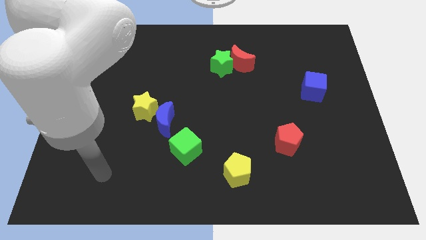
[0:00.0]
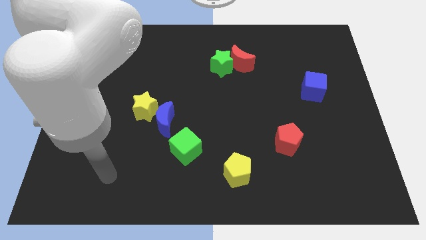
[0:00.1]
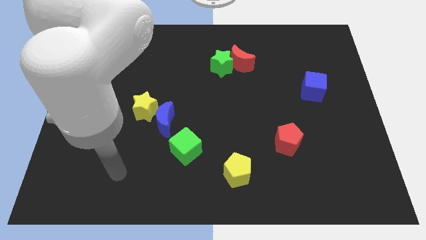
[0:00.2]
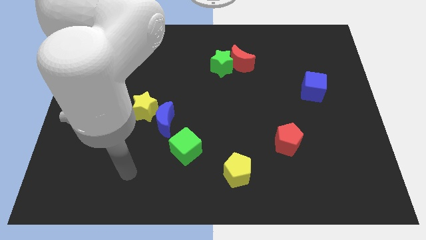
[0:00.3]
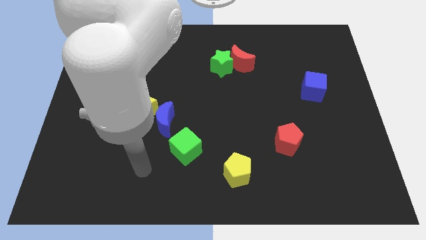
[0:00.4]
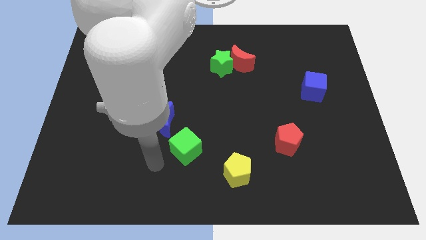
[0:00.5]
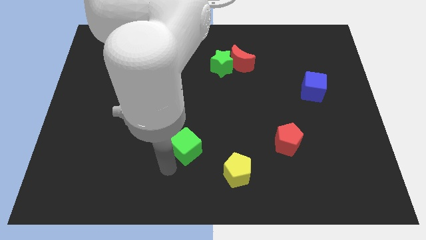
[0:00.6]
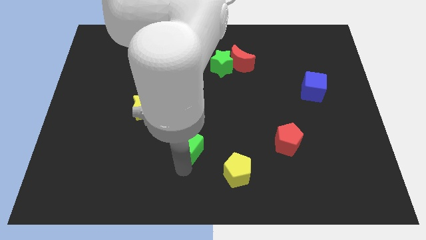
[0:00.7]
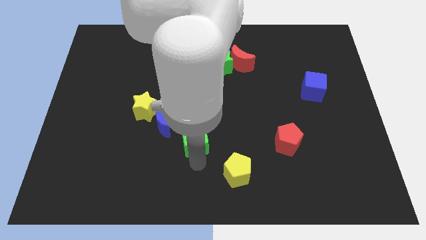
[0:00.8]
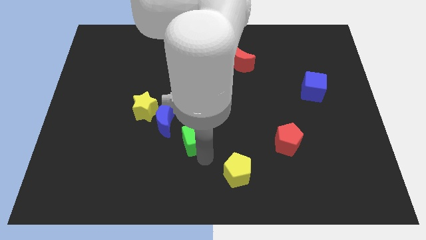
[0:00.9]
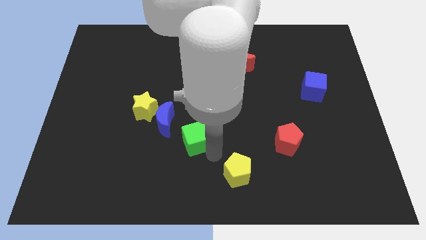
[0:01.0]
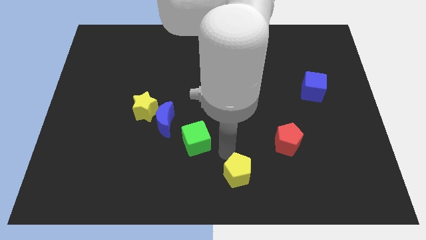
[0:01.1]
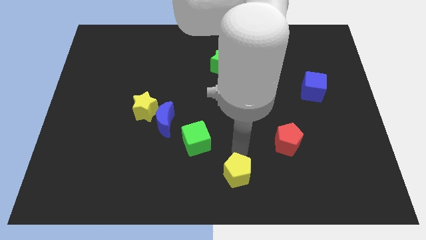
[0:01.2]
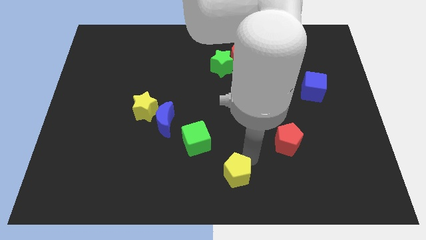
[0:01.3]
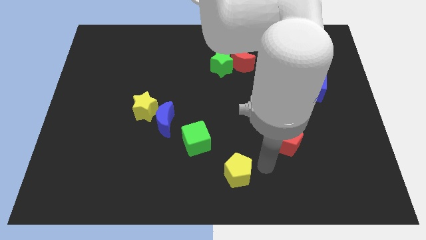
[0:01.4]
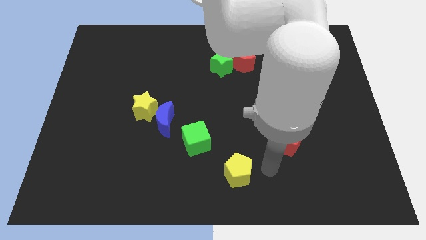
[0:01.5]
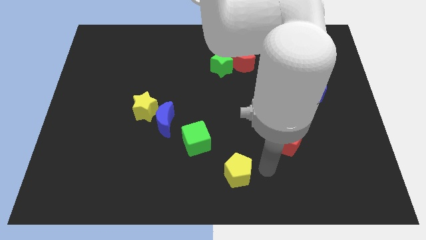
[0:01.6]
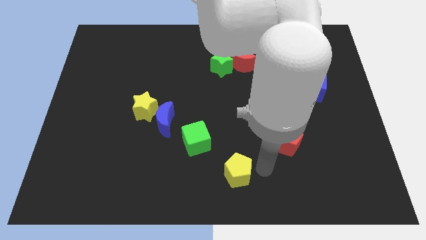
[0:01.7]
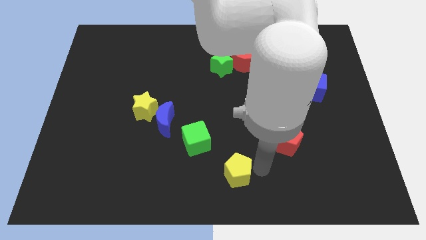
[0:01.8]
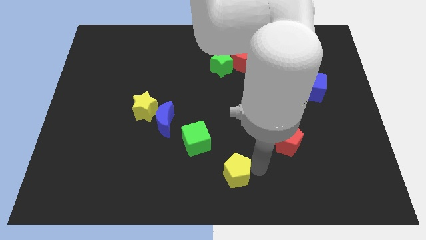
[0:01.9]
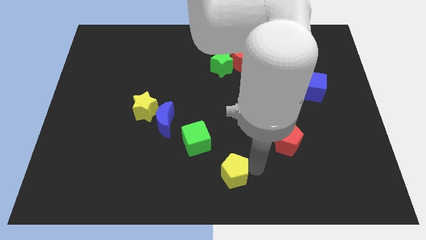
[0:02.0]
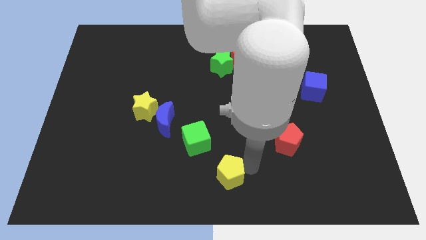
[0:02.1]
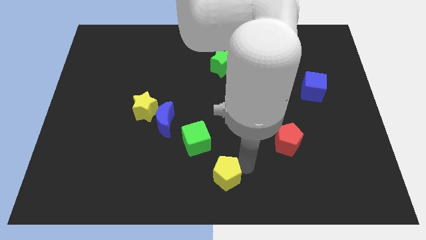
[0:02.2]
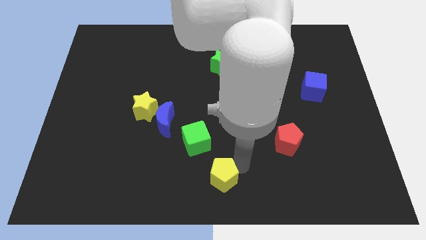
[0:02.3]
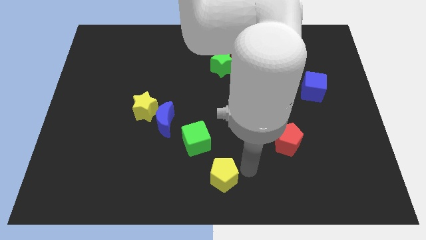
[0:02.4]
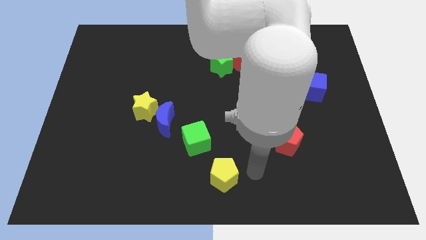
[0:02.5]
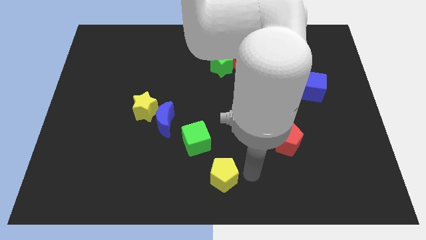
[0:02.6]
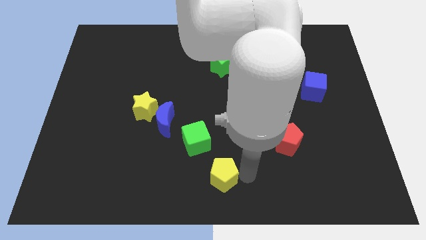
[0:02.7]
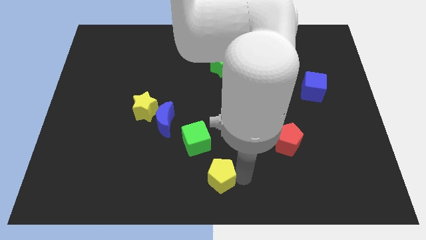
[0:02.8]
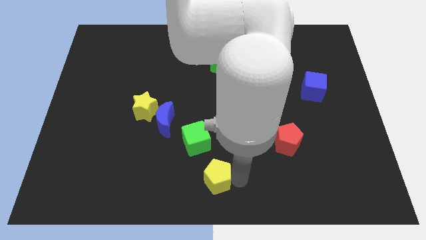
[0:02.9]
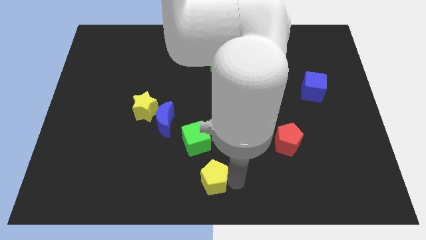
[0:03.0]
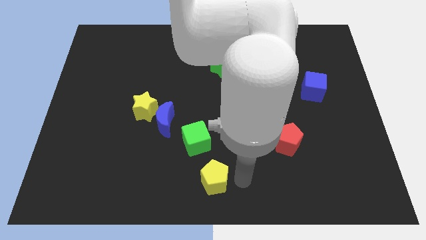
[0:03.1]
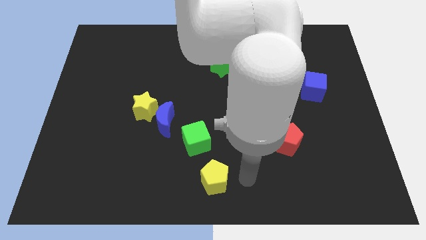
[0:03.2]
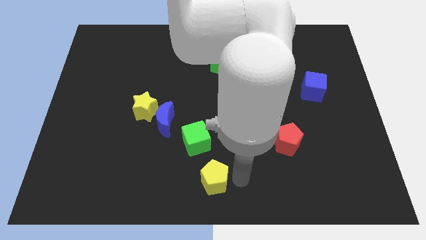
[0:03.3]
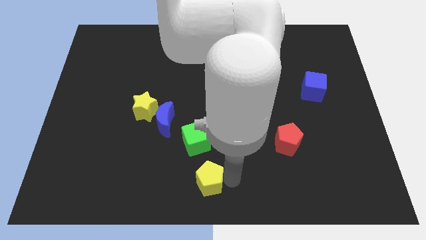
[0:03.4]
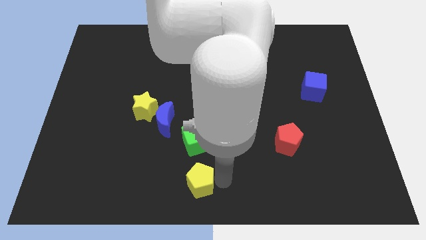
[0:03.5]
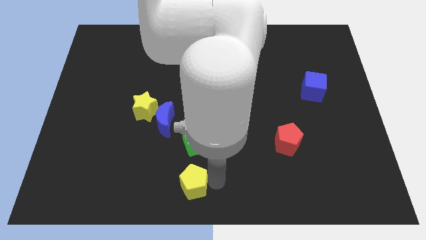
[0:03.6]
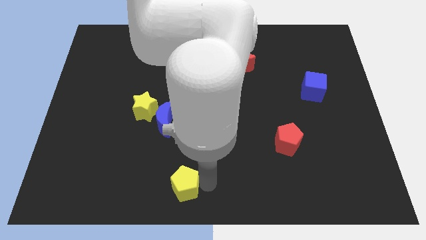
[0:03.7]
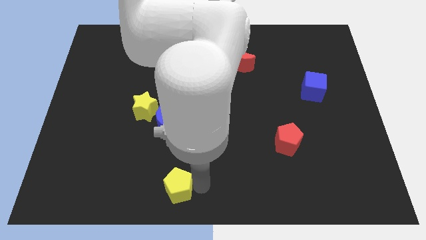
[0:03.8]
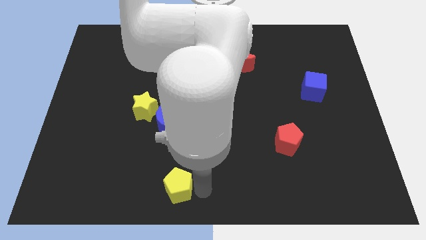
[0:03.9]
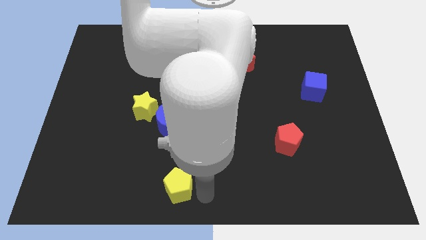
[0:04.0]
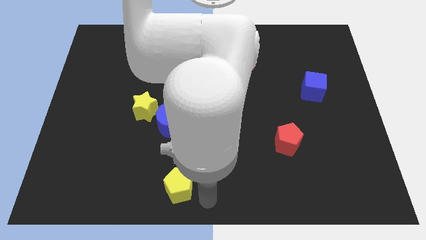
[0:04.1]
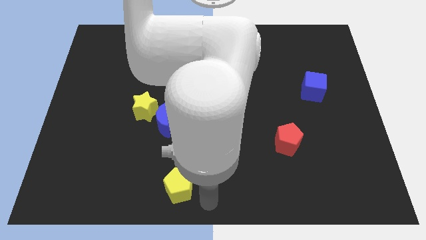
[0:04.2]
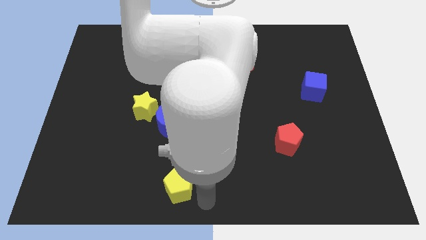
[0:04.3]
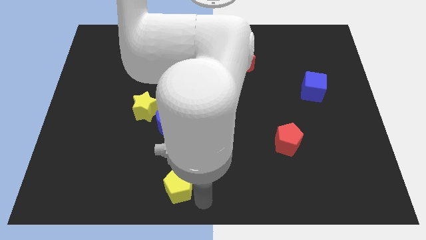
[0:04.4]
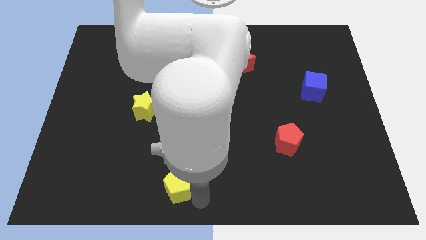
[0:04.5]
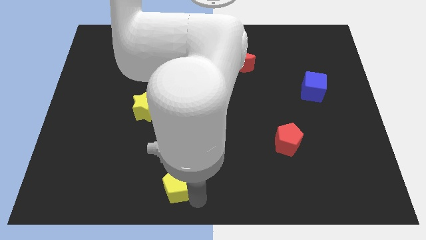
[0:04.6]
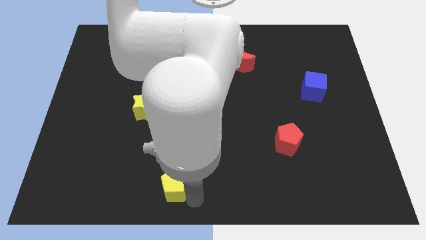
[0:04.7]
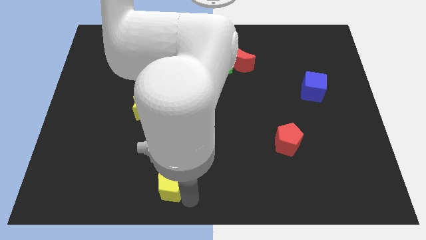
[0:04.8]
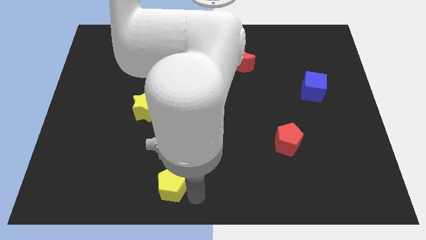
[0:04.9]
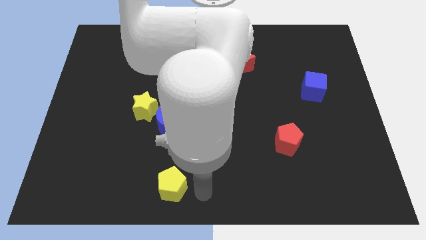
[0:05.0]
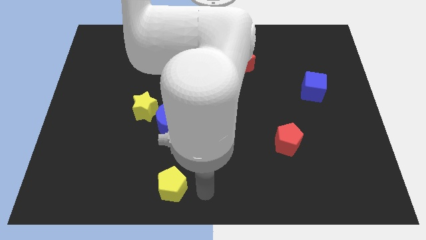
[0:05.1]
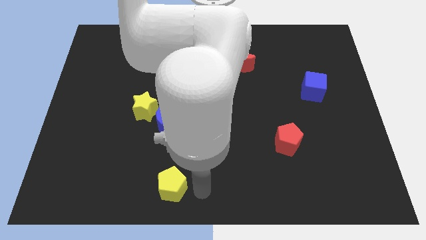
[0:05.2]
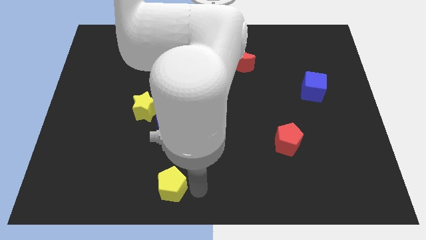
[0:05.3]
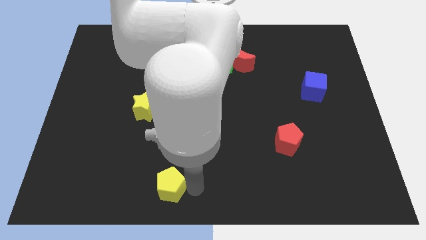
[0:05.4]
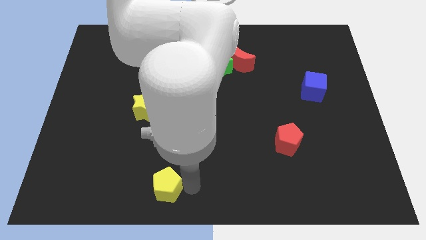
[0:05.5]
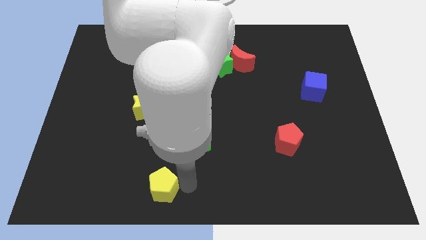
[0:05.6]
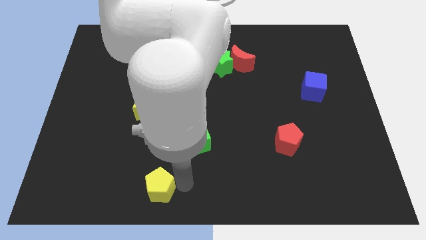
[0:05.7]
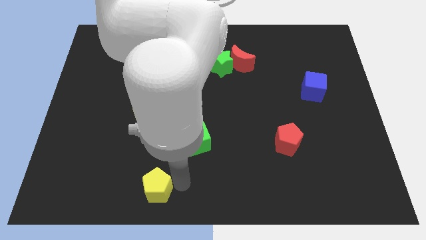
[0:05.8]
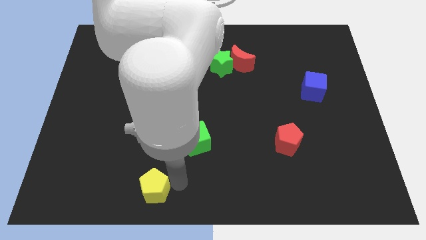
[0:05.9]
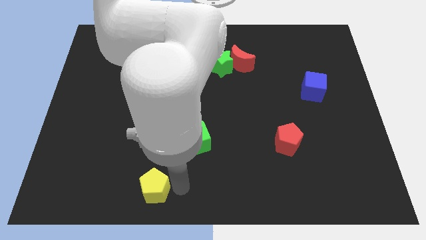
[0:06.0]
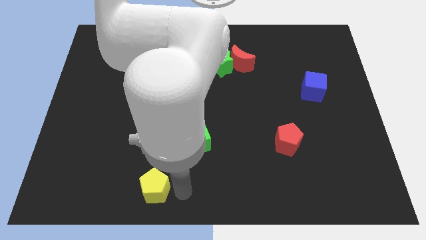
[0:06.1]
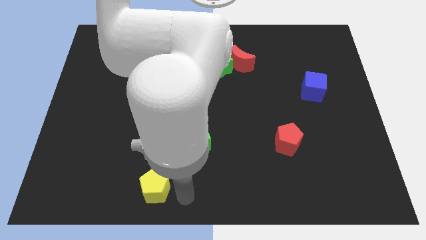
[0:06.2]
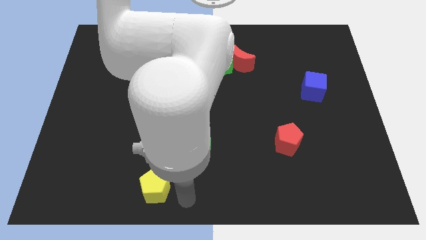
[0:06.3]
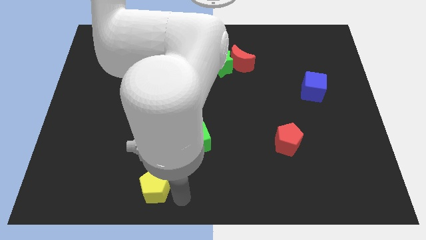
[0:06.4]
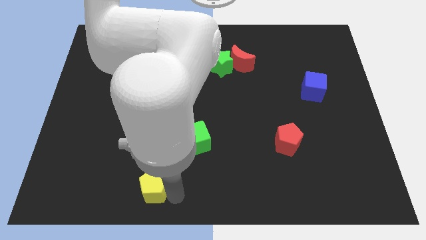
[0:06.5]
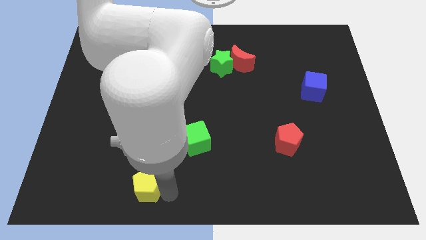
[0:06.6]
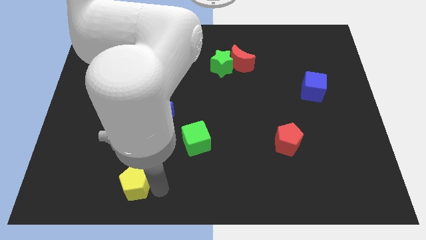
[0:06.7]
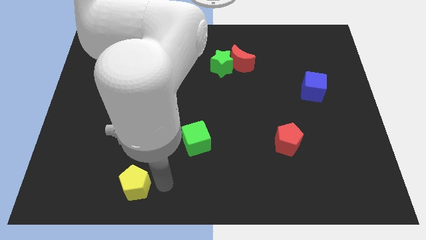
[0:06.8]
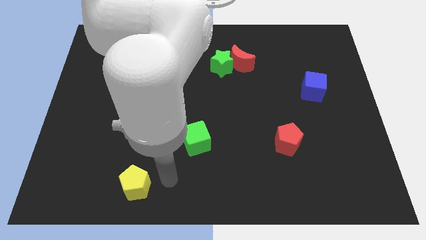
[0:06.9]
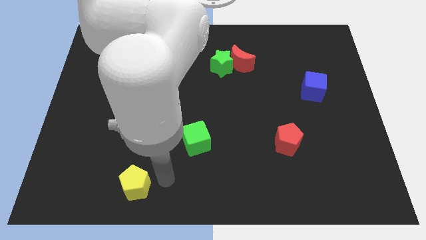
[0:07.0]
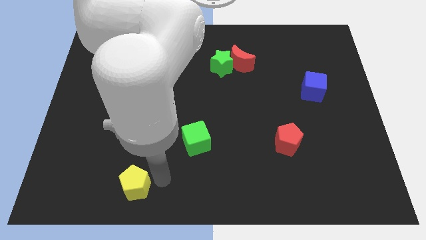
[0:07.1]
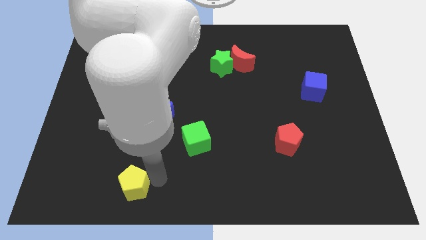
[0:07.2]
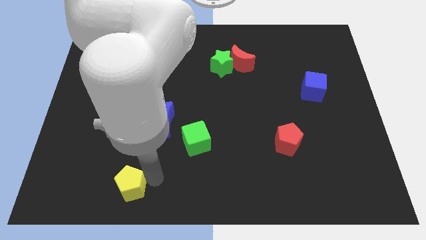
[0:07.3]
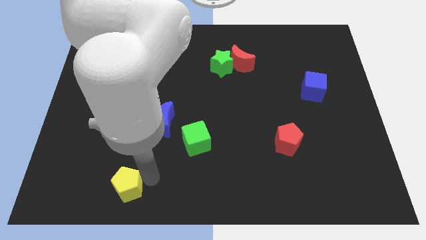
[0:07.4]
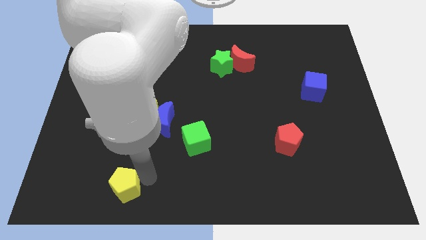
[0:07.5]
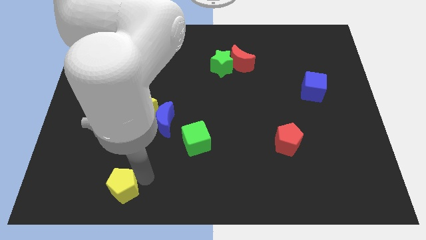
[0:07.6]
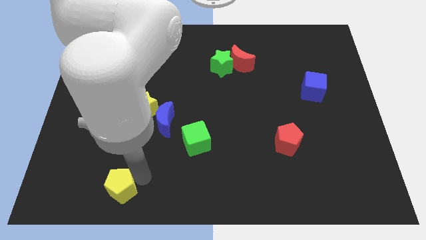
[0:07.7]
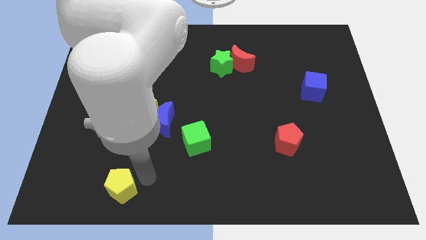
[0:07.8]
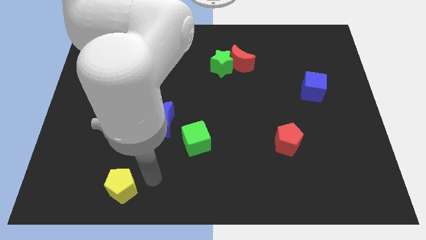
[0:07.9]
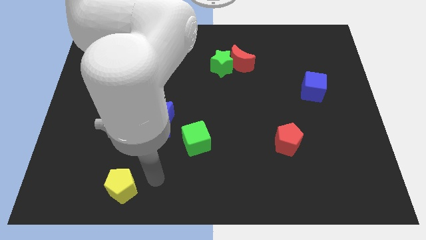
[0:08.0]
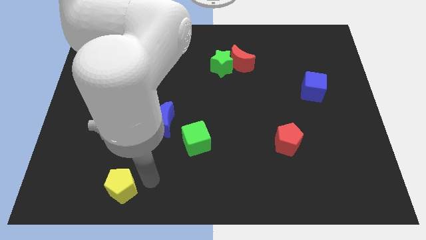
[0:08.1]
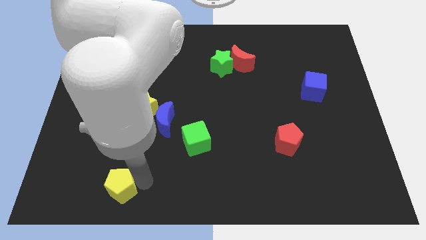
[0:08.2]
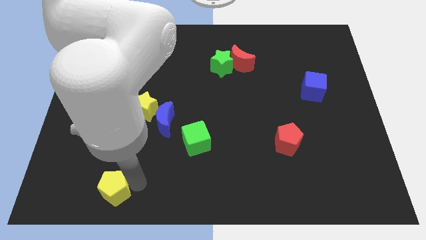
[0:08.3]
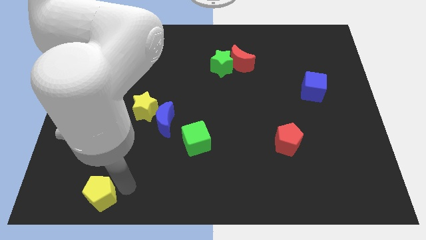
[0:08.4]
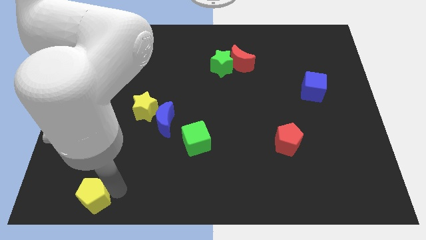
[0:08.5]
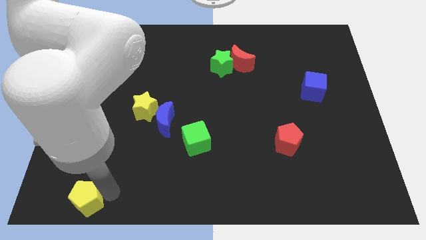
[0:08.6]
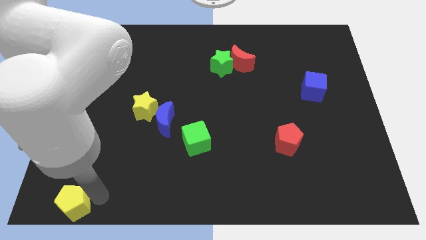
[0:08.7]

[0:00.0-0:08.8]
put the yellow pentagon to the lower left corner
